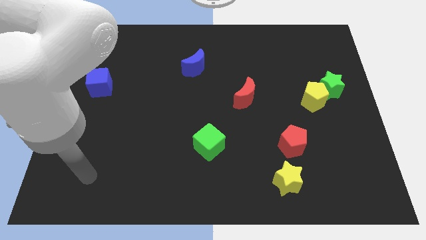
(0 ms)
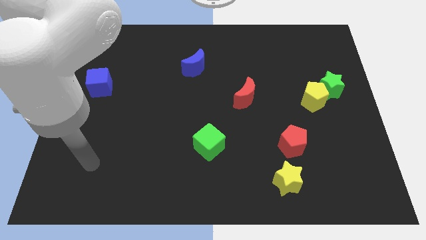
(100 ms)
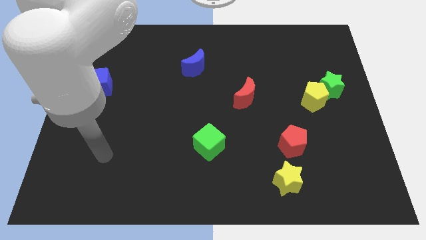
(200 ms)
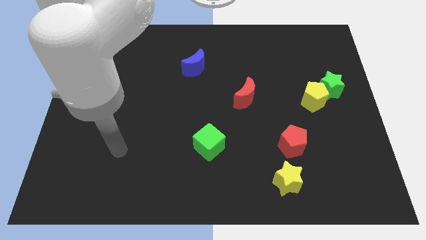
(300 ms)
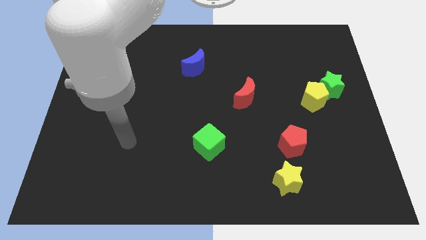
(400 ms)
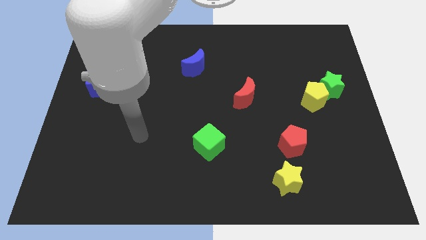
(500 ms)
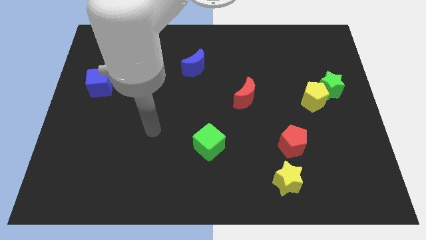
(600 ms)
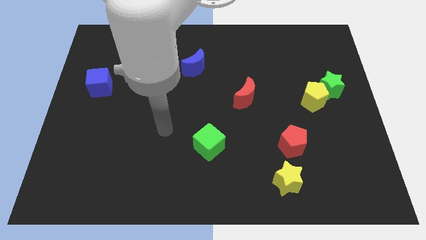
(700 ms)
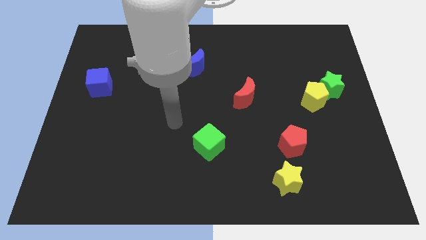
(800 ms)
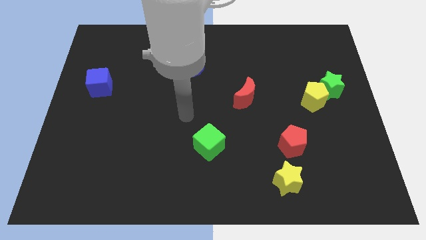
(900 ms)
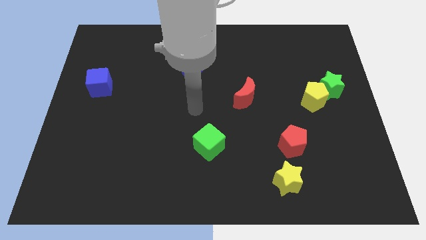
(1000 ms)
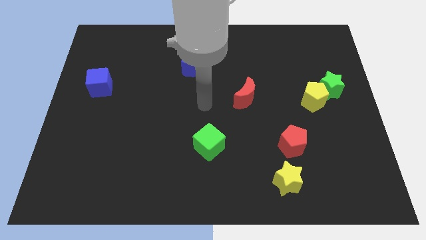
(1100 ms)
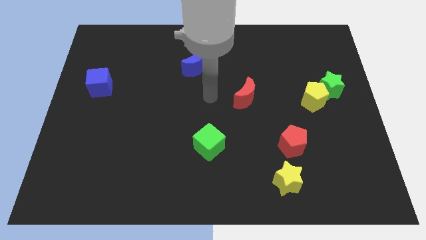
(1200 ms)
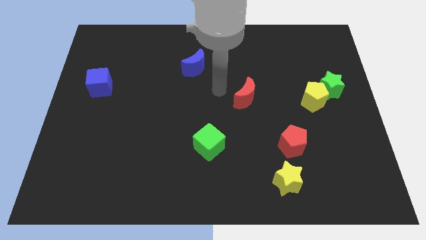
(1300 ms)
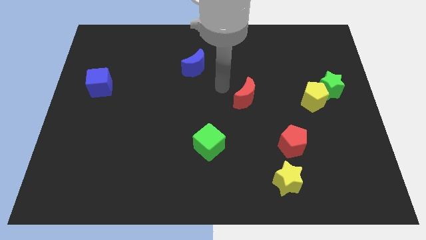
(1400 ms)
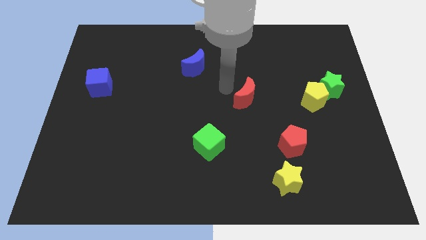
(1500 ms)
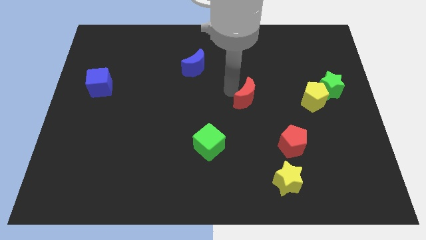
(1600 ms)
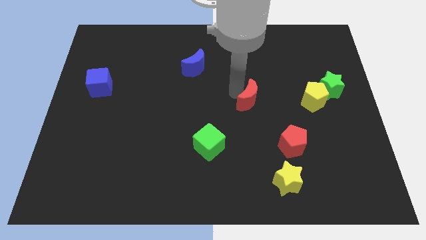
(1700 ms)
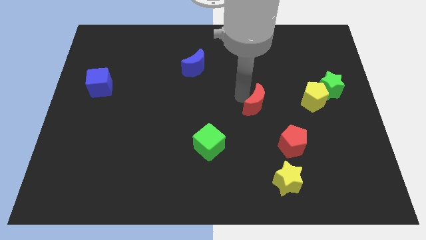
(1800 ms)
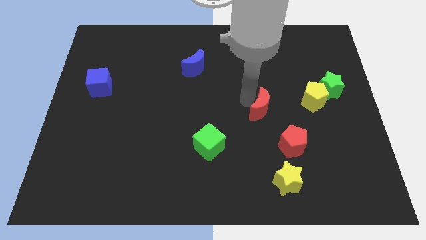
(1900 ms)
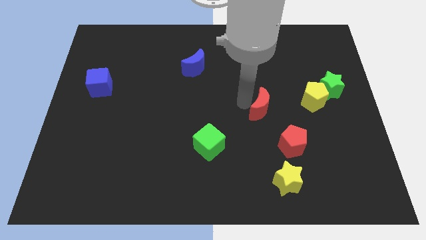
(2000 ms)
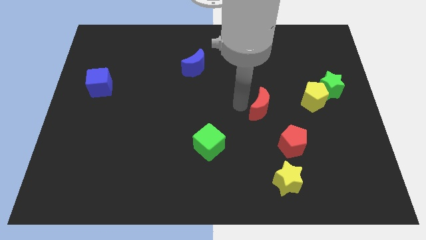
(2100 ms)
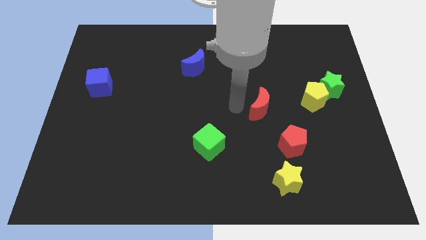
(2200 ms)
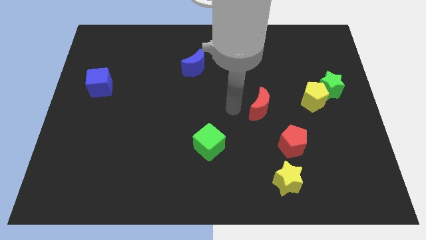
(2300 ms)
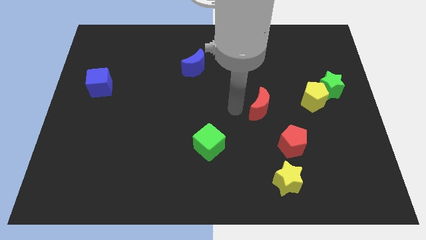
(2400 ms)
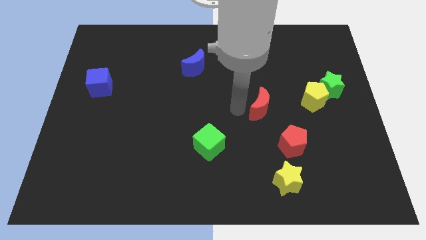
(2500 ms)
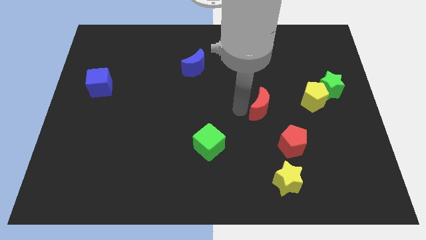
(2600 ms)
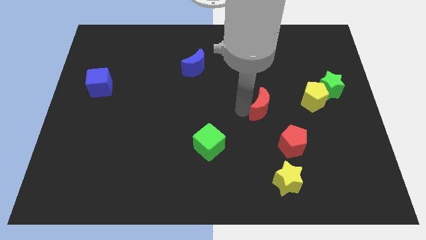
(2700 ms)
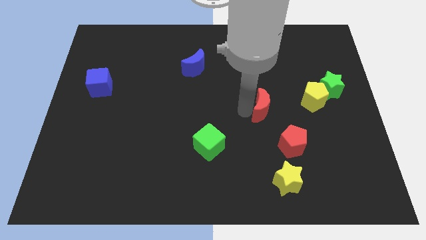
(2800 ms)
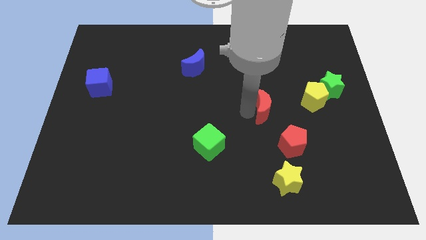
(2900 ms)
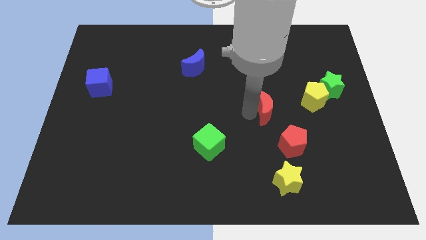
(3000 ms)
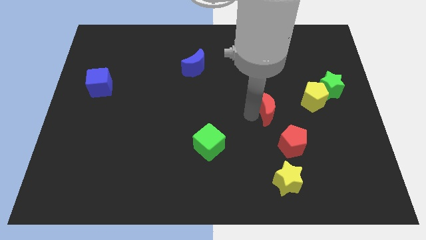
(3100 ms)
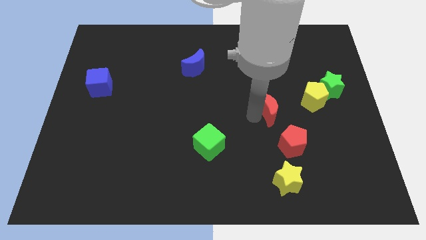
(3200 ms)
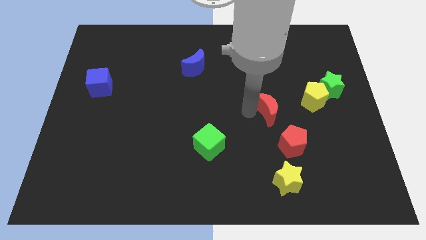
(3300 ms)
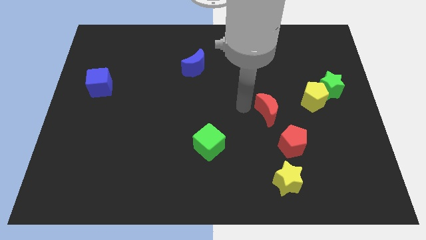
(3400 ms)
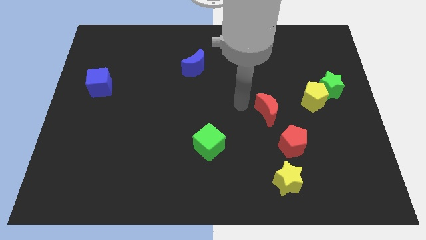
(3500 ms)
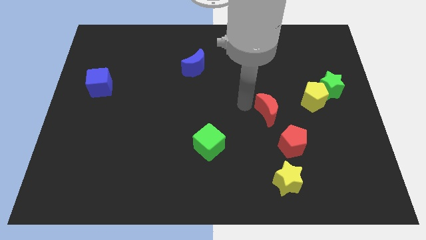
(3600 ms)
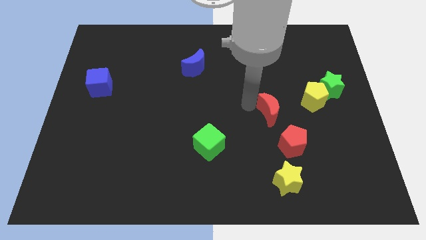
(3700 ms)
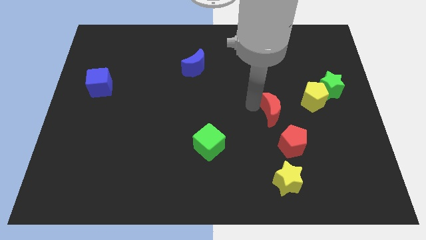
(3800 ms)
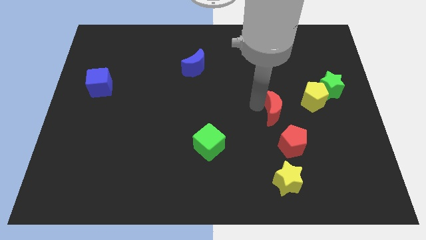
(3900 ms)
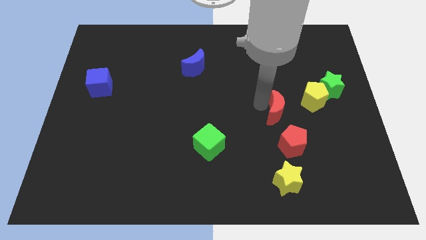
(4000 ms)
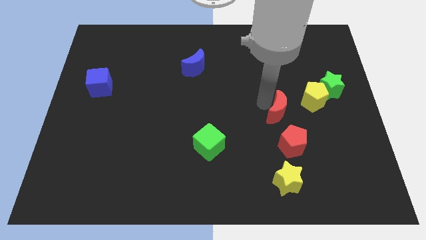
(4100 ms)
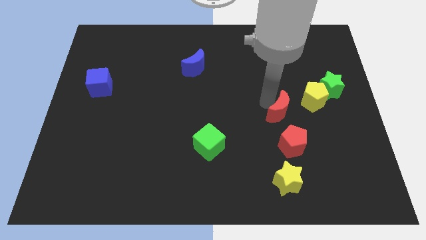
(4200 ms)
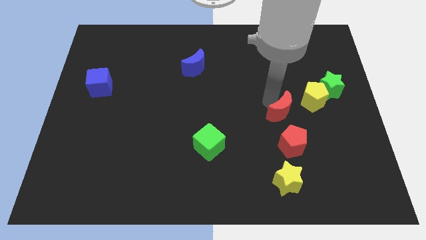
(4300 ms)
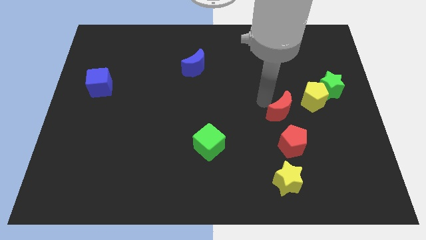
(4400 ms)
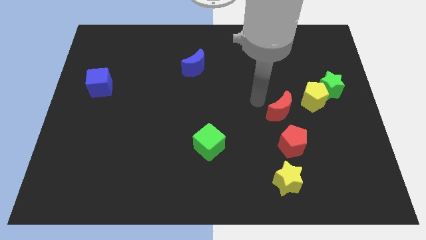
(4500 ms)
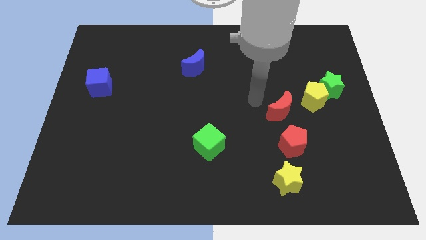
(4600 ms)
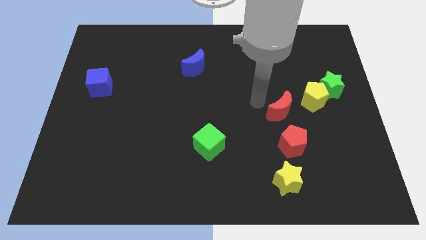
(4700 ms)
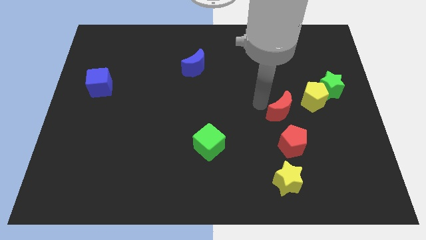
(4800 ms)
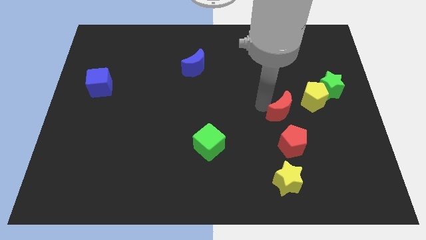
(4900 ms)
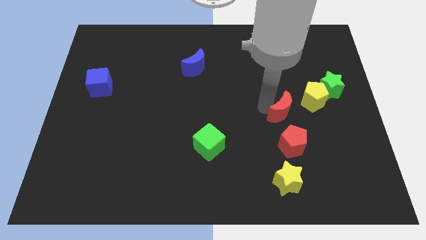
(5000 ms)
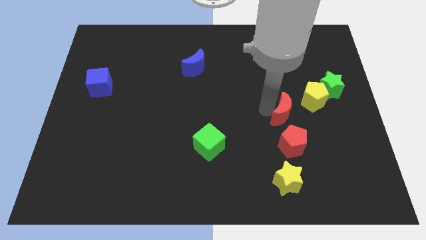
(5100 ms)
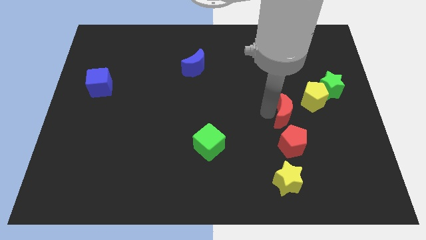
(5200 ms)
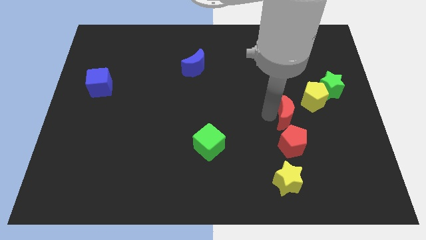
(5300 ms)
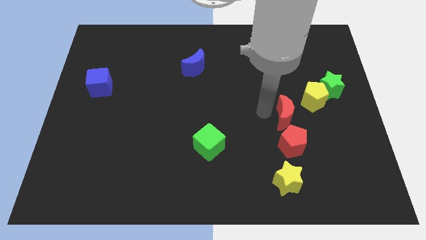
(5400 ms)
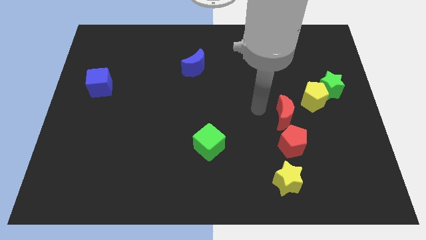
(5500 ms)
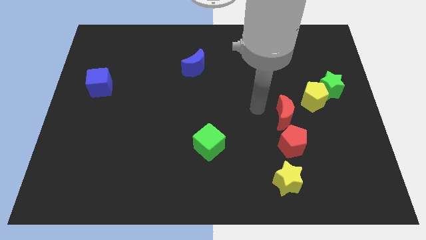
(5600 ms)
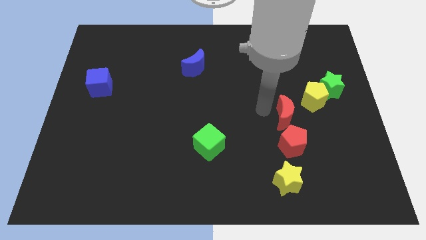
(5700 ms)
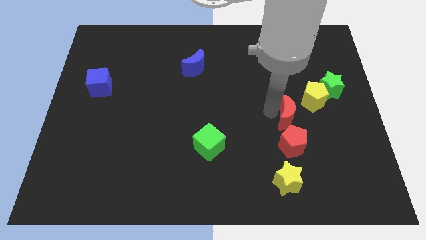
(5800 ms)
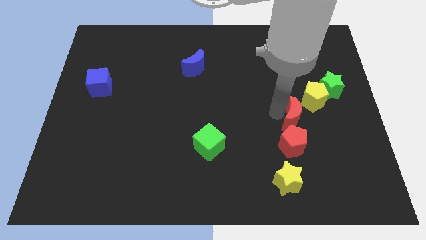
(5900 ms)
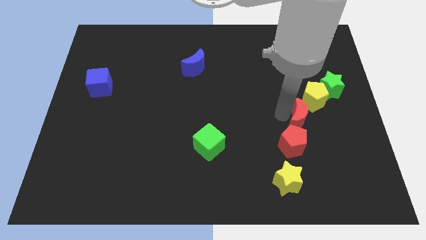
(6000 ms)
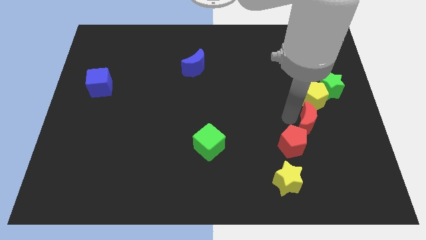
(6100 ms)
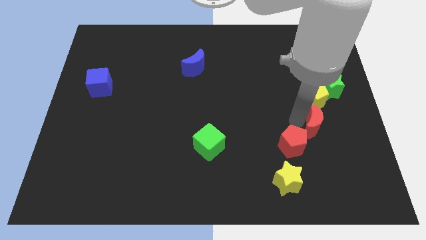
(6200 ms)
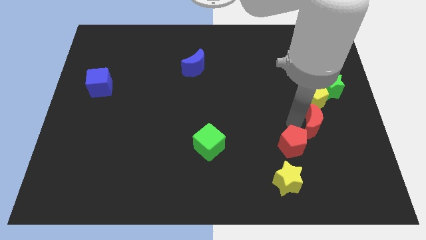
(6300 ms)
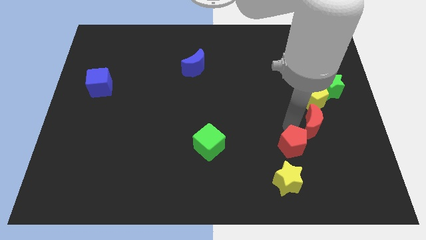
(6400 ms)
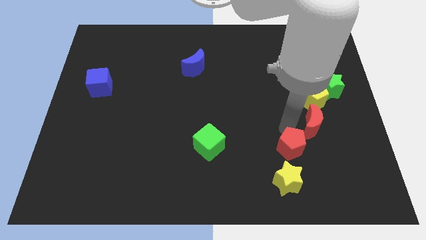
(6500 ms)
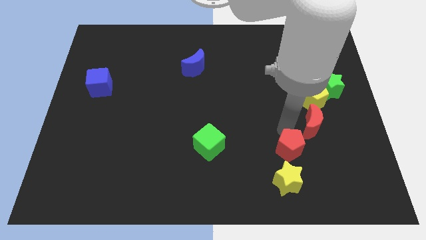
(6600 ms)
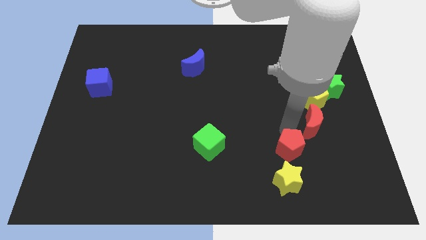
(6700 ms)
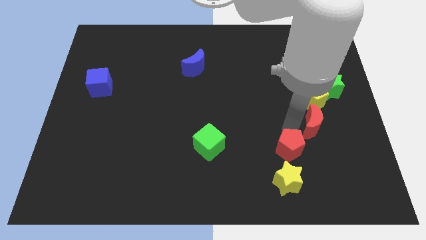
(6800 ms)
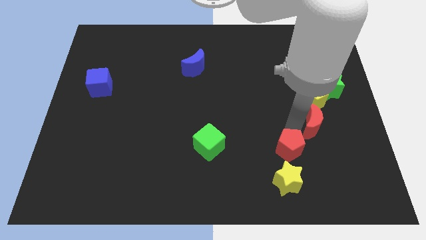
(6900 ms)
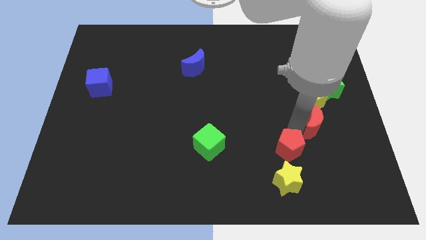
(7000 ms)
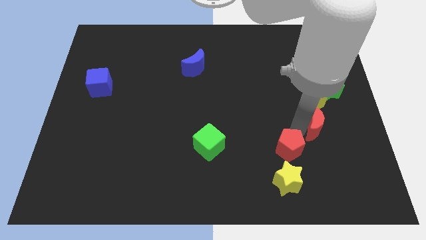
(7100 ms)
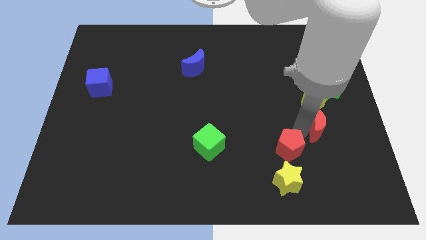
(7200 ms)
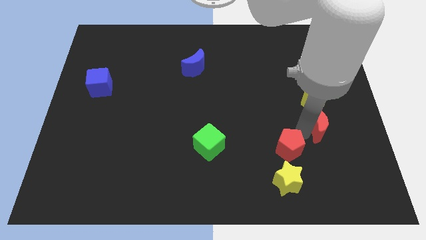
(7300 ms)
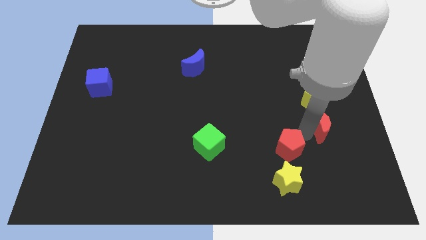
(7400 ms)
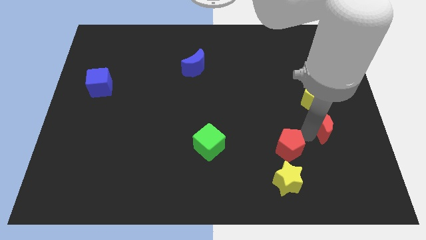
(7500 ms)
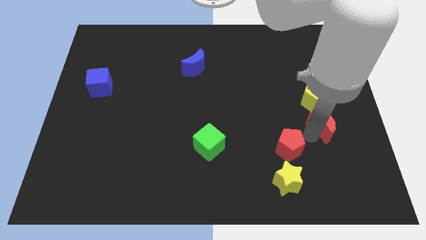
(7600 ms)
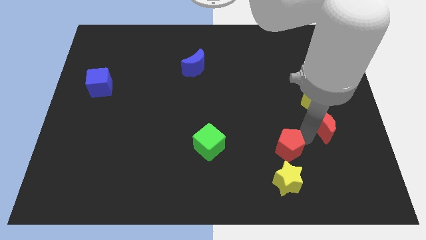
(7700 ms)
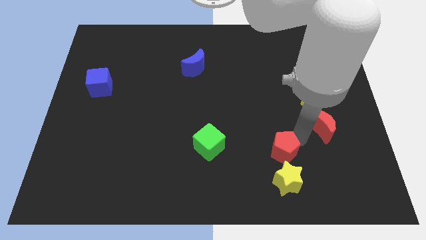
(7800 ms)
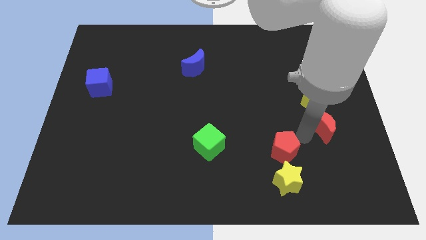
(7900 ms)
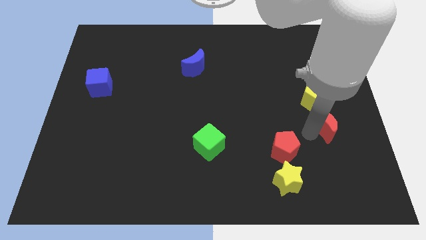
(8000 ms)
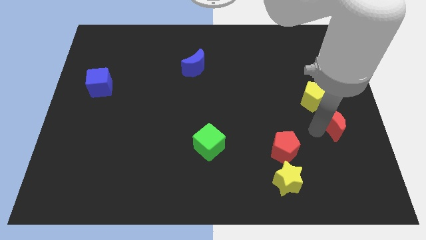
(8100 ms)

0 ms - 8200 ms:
put the red moon to the right side
